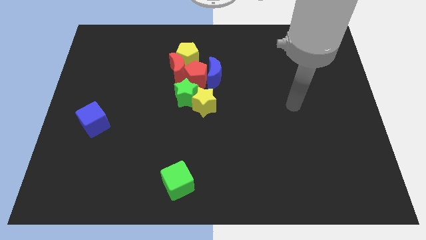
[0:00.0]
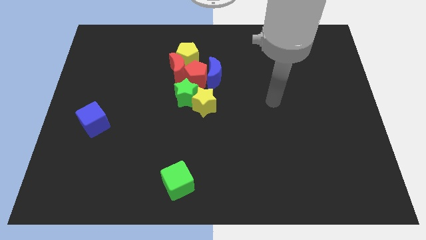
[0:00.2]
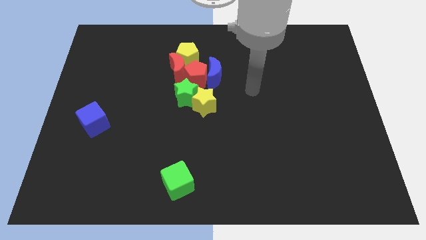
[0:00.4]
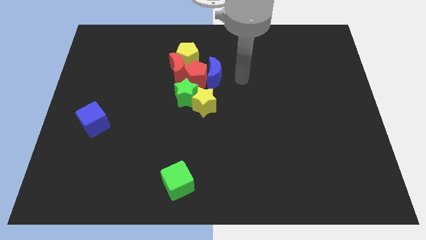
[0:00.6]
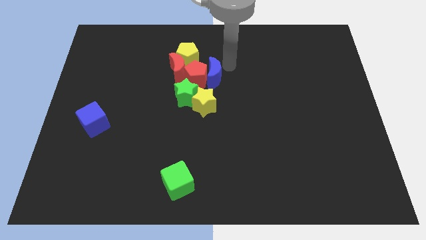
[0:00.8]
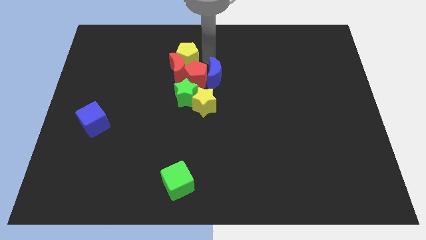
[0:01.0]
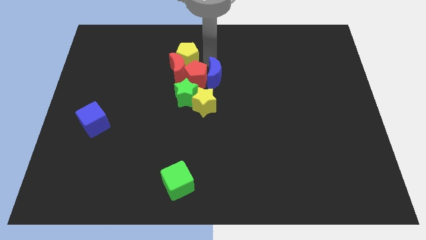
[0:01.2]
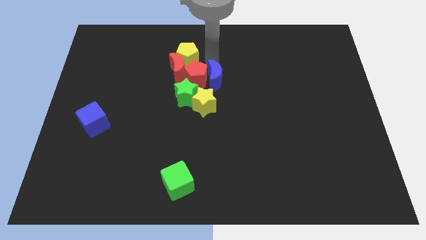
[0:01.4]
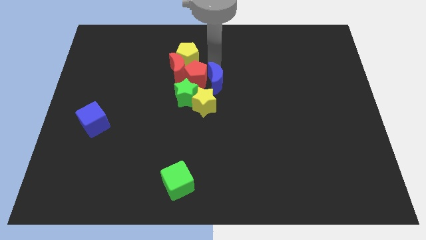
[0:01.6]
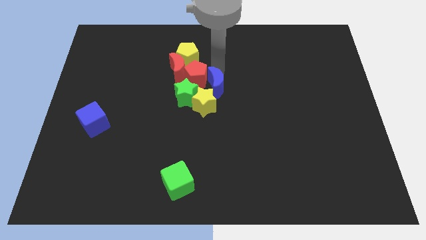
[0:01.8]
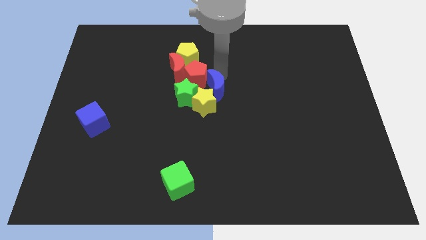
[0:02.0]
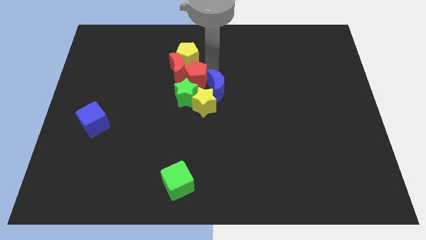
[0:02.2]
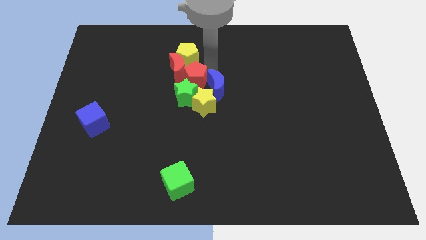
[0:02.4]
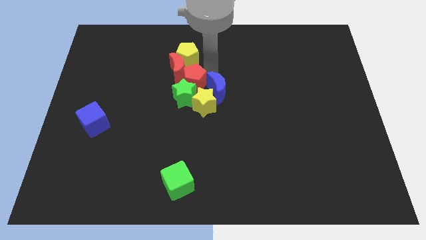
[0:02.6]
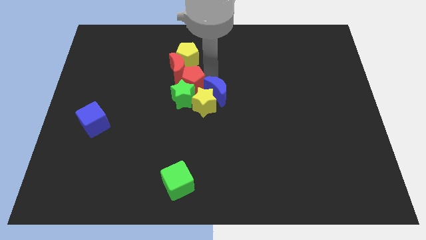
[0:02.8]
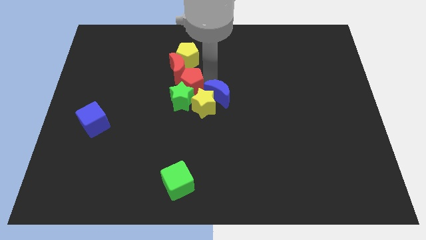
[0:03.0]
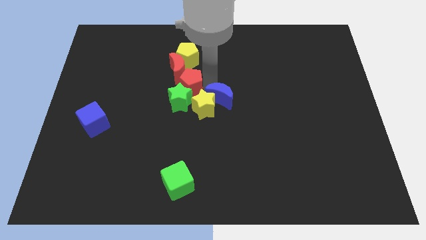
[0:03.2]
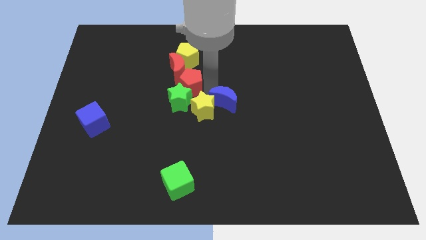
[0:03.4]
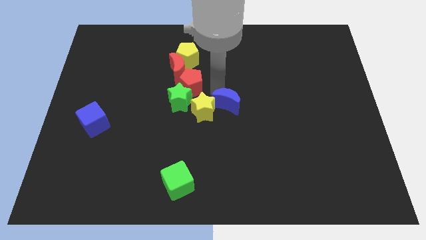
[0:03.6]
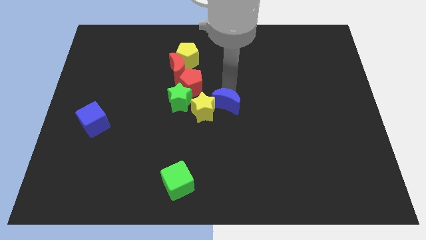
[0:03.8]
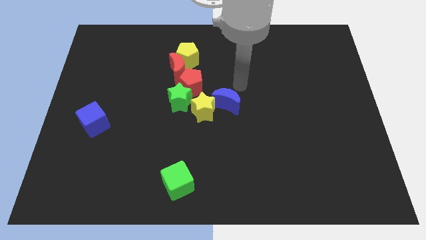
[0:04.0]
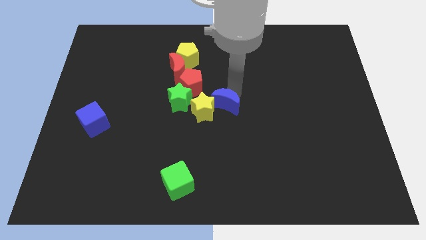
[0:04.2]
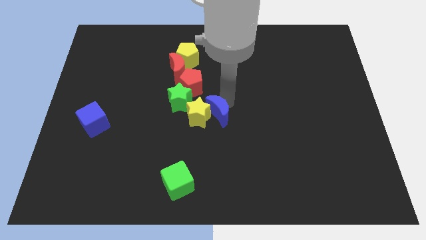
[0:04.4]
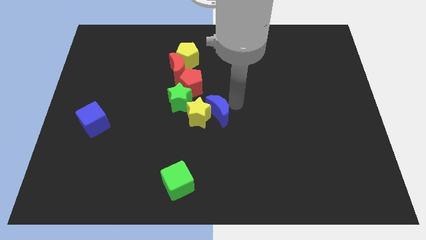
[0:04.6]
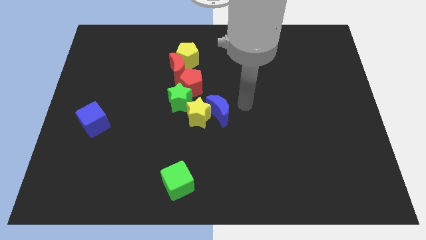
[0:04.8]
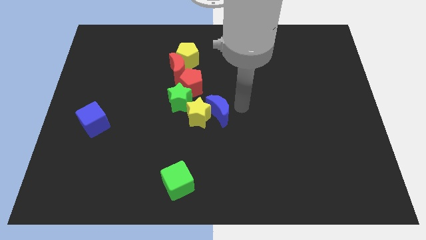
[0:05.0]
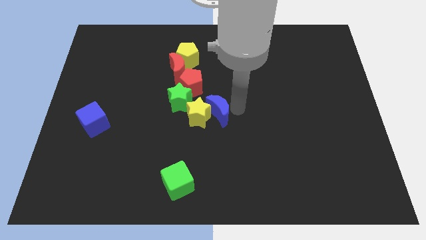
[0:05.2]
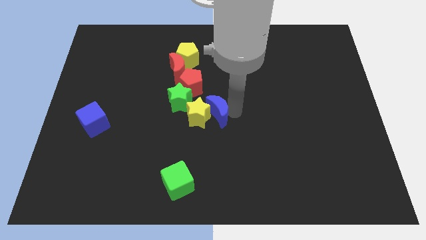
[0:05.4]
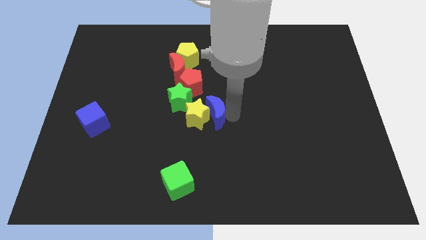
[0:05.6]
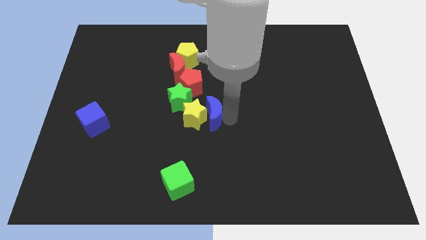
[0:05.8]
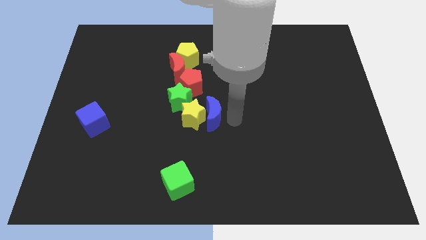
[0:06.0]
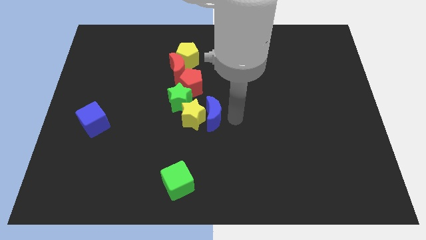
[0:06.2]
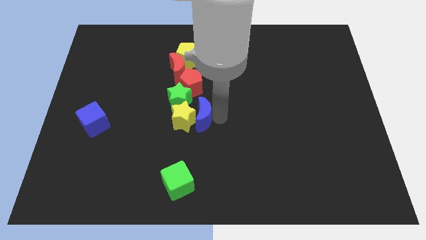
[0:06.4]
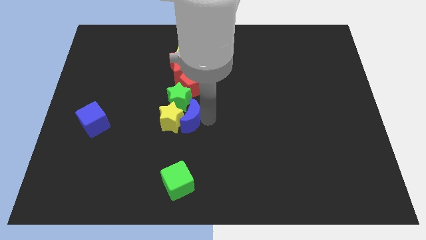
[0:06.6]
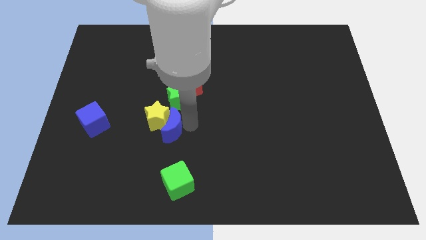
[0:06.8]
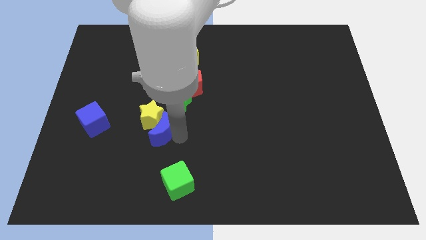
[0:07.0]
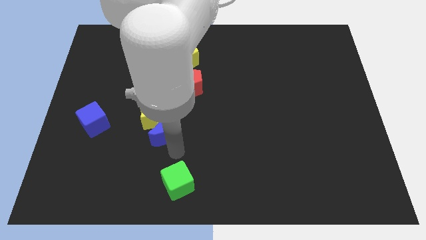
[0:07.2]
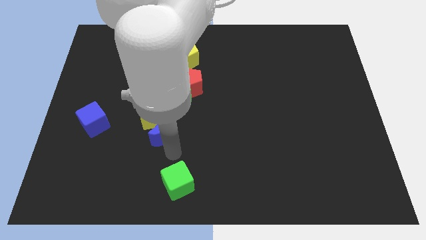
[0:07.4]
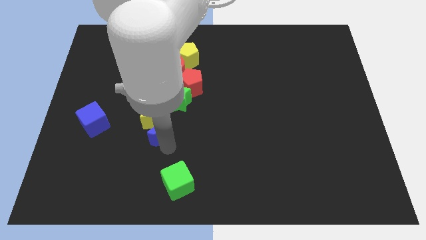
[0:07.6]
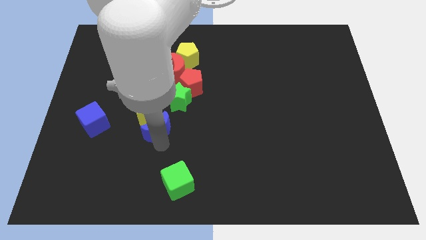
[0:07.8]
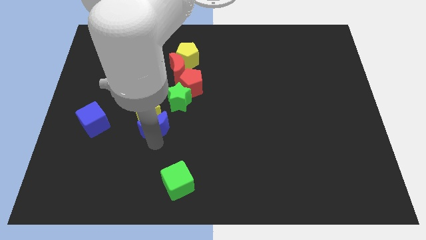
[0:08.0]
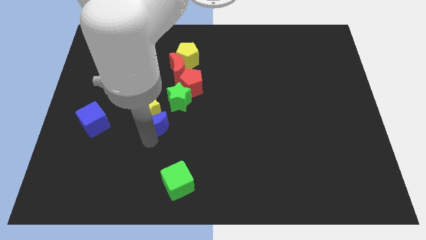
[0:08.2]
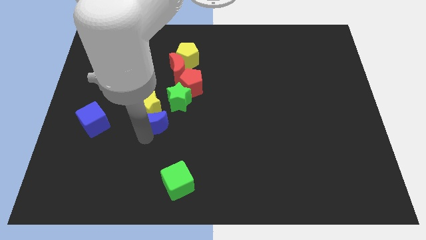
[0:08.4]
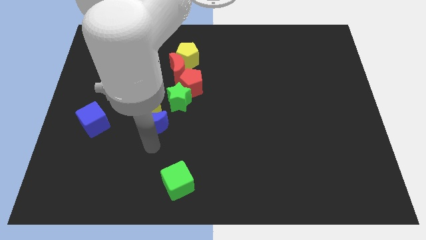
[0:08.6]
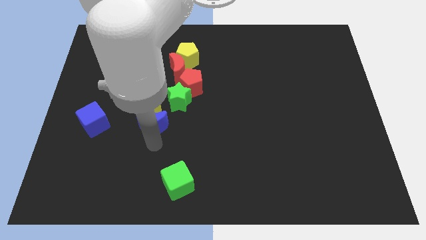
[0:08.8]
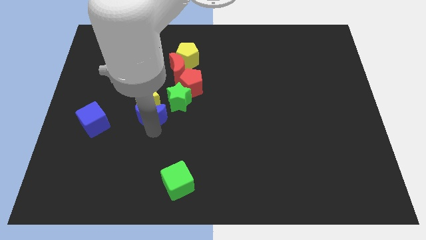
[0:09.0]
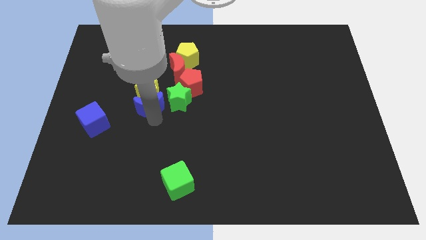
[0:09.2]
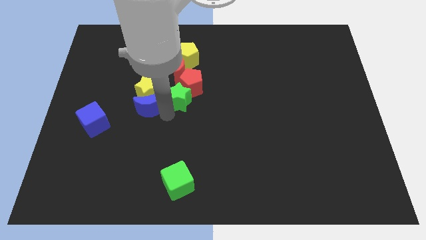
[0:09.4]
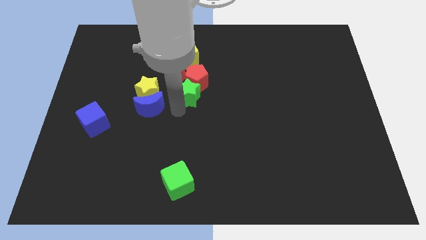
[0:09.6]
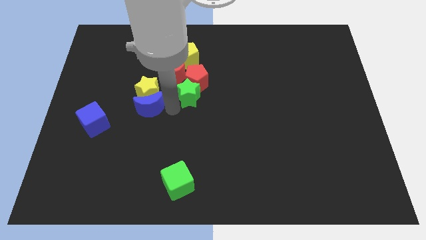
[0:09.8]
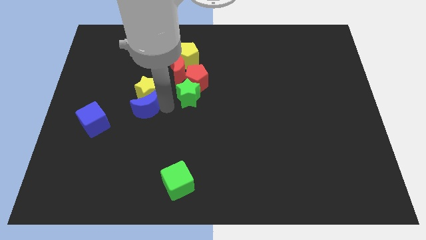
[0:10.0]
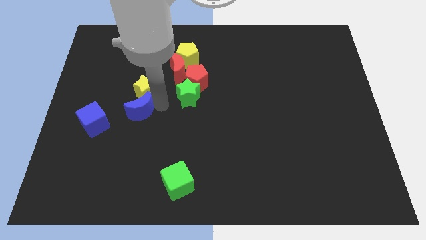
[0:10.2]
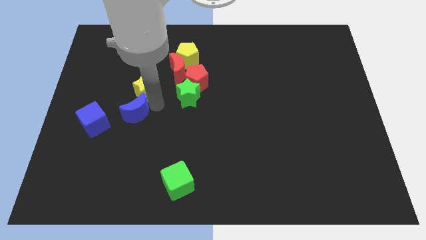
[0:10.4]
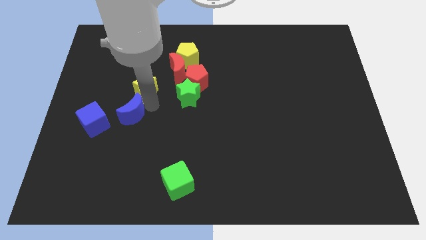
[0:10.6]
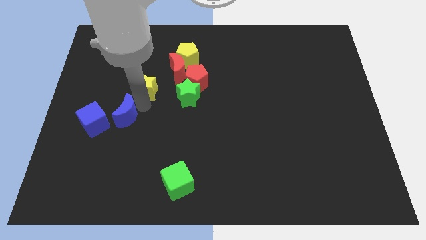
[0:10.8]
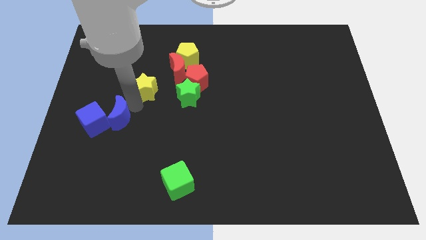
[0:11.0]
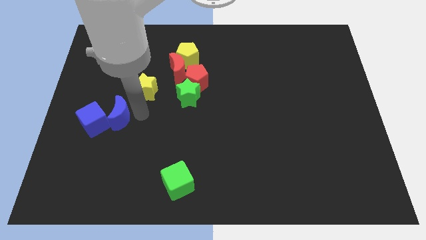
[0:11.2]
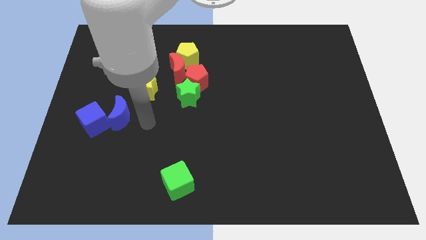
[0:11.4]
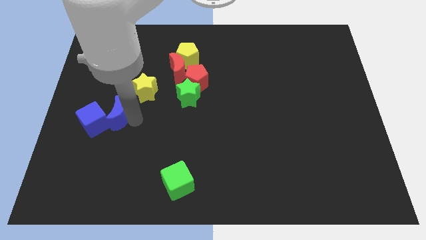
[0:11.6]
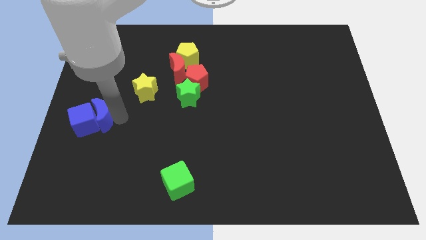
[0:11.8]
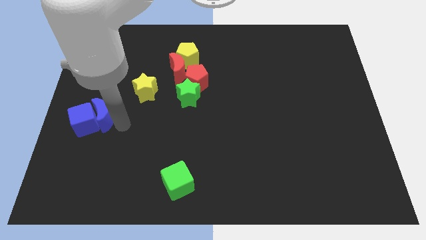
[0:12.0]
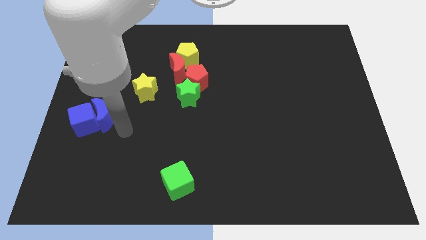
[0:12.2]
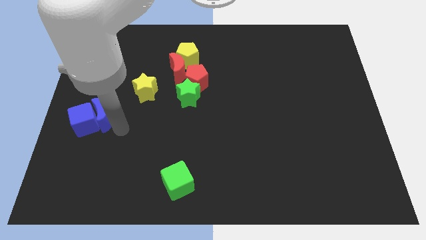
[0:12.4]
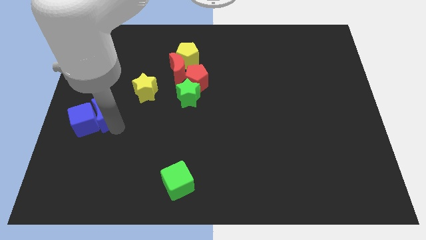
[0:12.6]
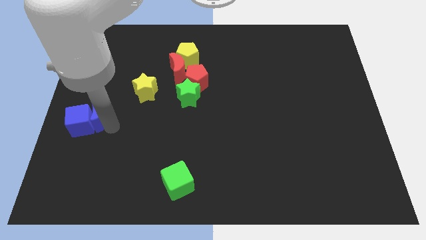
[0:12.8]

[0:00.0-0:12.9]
put the blue moon to the left side of the board
